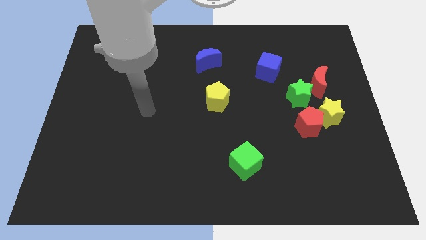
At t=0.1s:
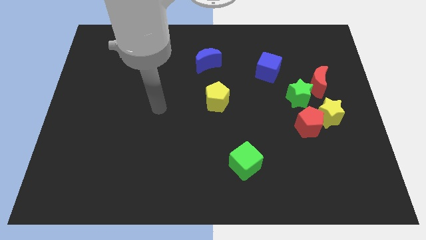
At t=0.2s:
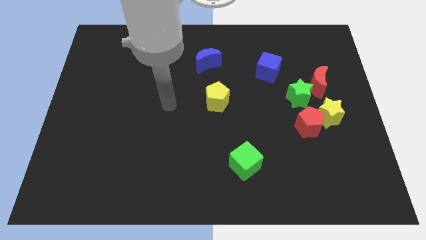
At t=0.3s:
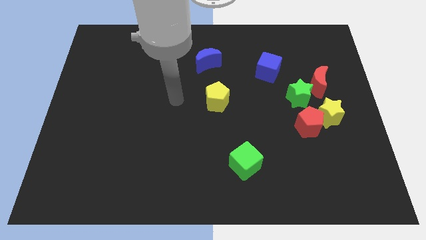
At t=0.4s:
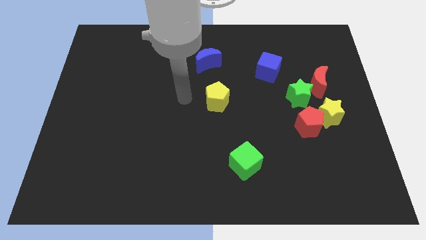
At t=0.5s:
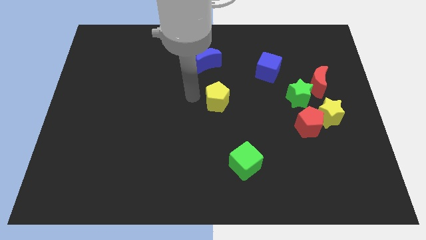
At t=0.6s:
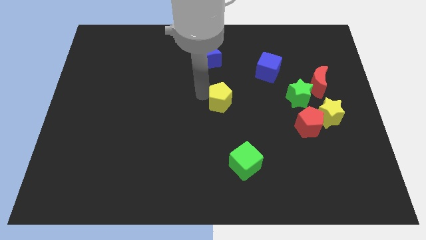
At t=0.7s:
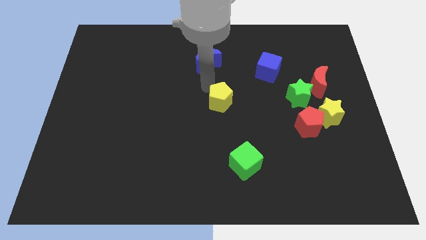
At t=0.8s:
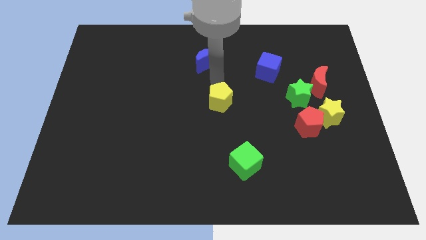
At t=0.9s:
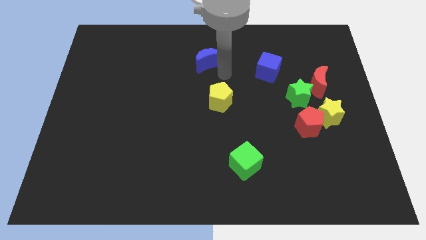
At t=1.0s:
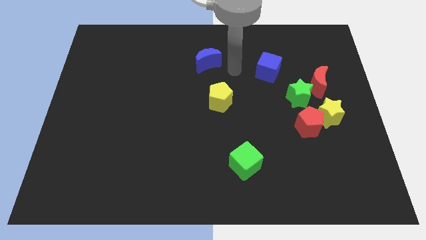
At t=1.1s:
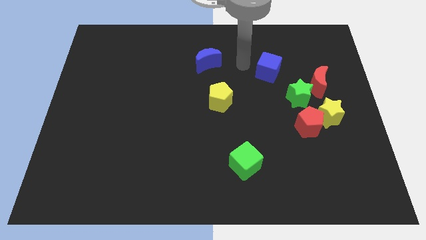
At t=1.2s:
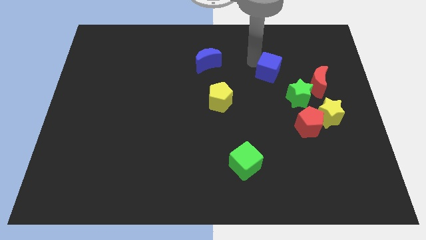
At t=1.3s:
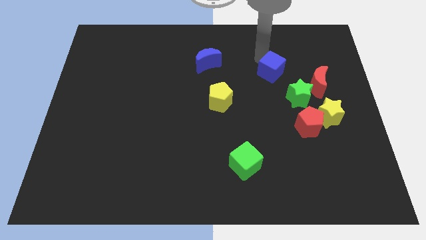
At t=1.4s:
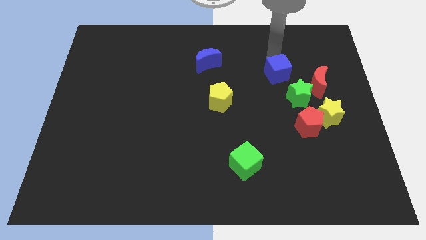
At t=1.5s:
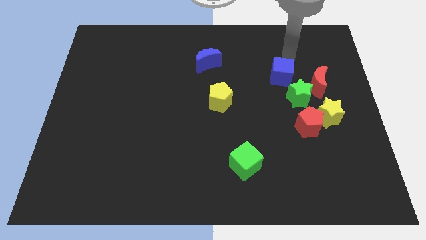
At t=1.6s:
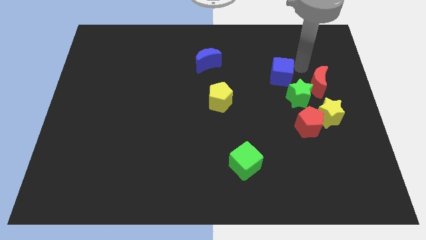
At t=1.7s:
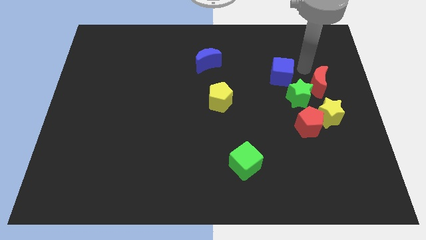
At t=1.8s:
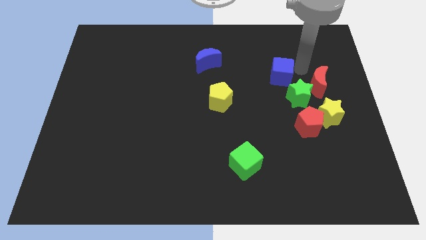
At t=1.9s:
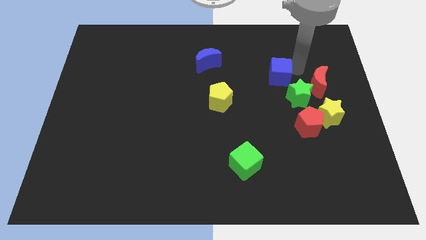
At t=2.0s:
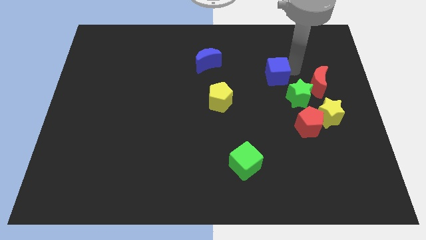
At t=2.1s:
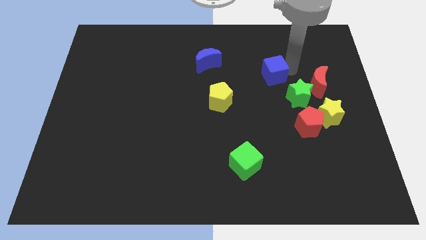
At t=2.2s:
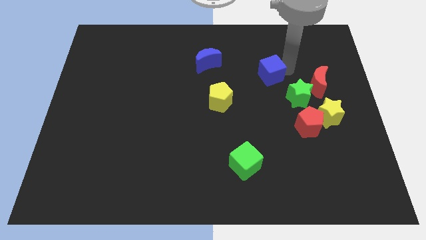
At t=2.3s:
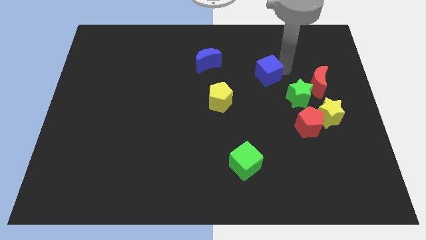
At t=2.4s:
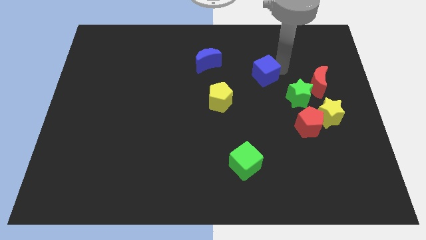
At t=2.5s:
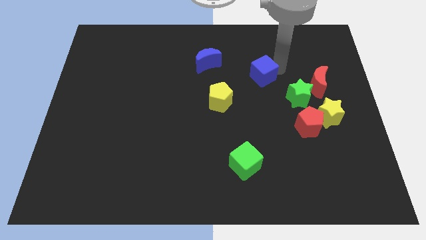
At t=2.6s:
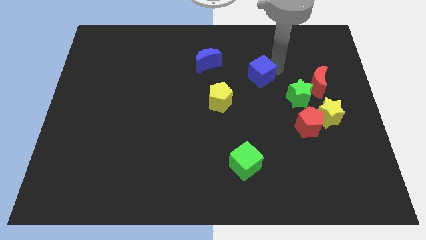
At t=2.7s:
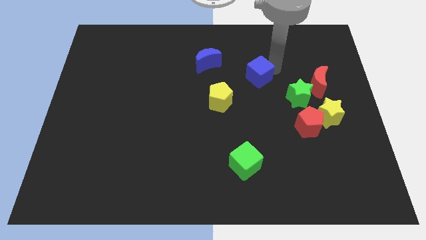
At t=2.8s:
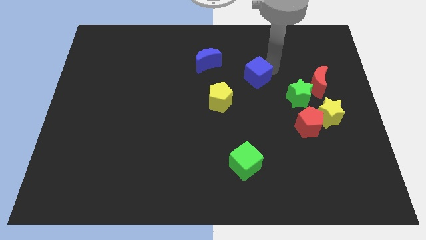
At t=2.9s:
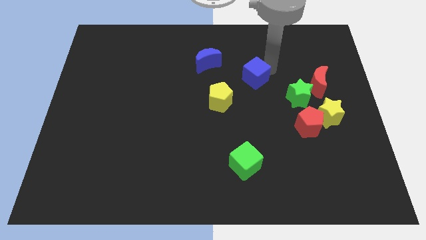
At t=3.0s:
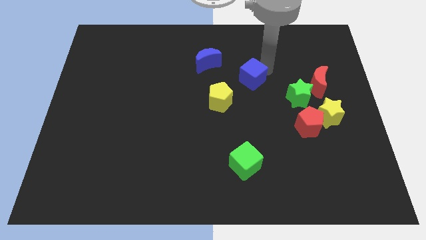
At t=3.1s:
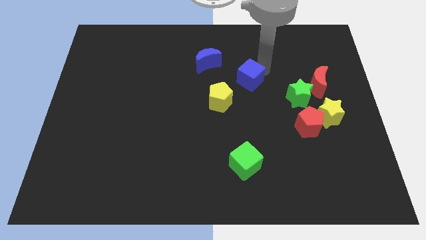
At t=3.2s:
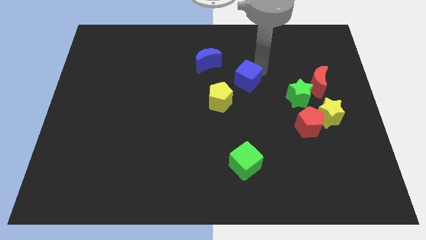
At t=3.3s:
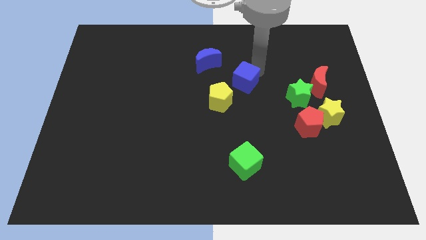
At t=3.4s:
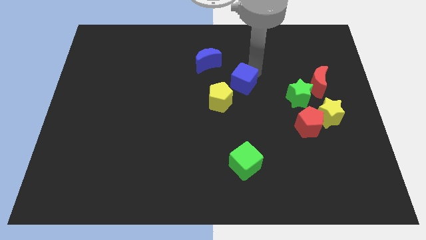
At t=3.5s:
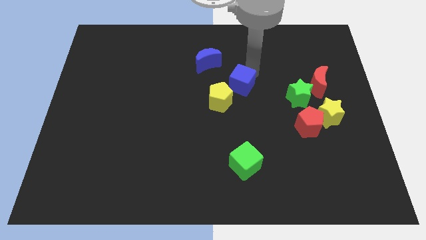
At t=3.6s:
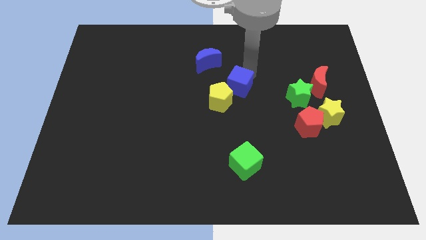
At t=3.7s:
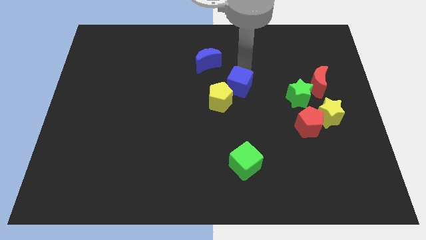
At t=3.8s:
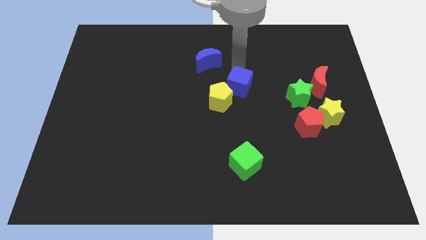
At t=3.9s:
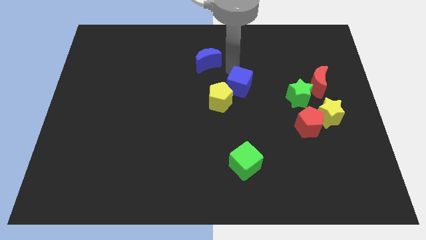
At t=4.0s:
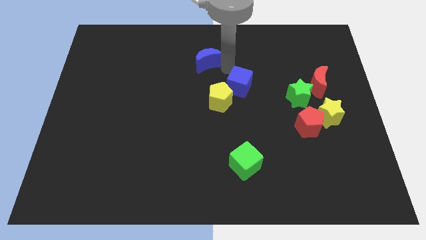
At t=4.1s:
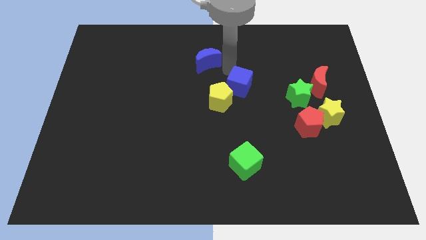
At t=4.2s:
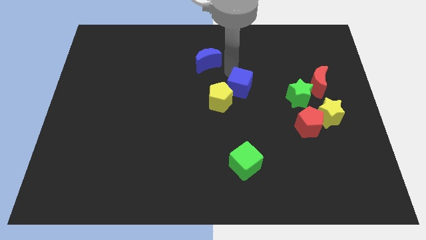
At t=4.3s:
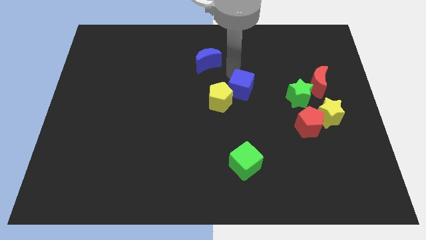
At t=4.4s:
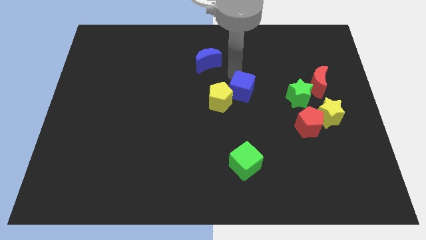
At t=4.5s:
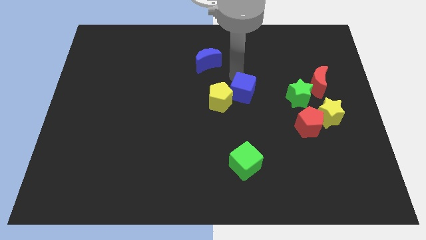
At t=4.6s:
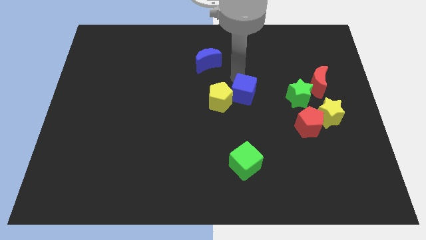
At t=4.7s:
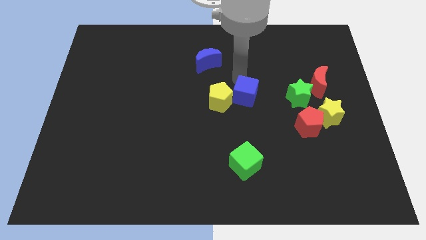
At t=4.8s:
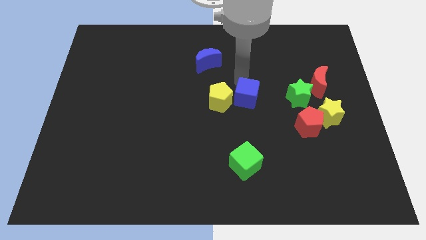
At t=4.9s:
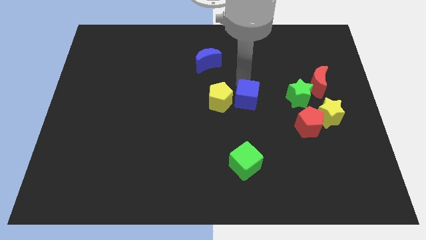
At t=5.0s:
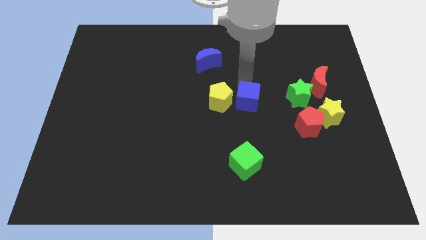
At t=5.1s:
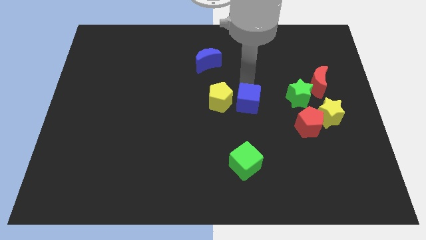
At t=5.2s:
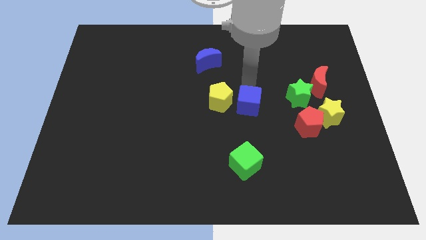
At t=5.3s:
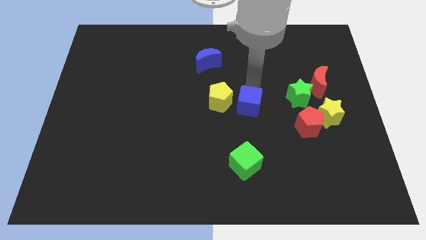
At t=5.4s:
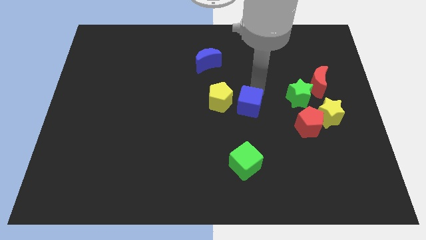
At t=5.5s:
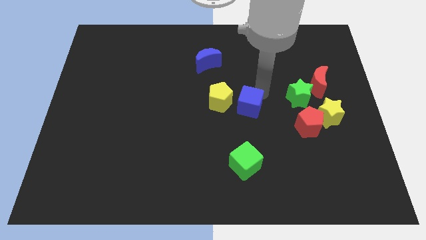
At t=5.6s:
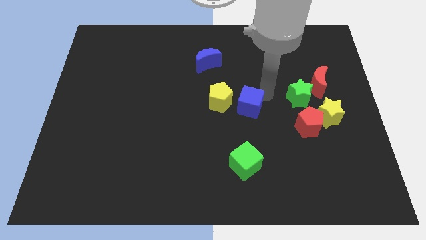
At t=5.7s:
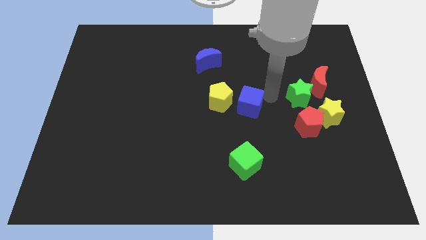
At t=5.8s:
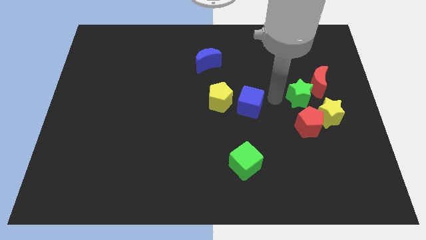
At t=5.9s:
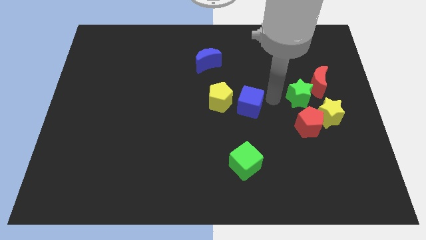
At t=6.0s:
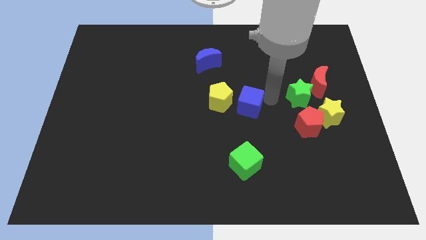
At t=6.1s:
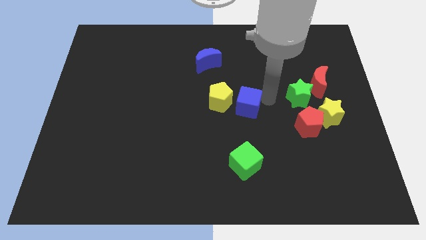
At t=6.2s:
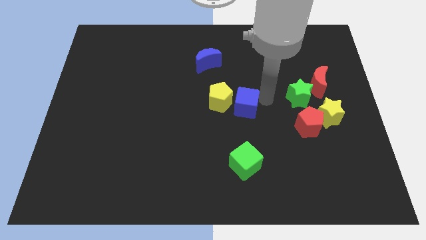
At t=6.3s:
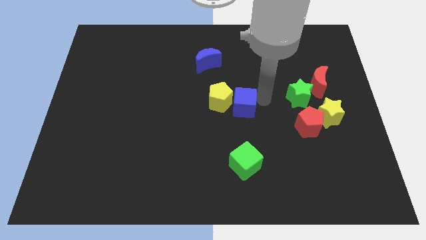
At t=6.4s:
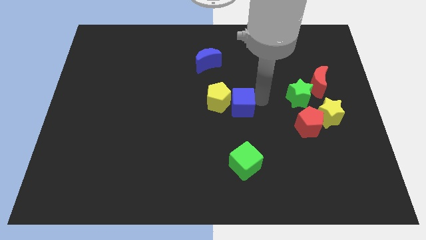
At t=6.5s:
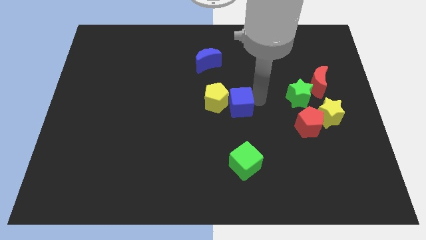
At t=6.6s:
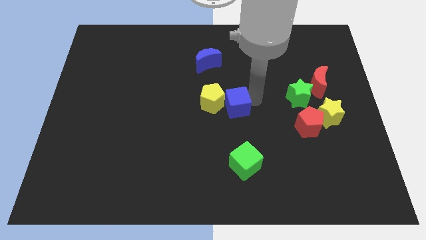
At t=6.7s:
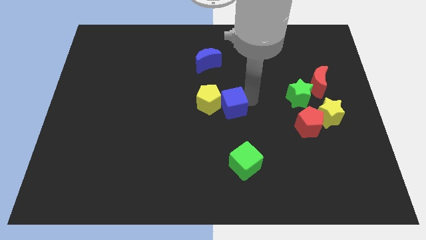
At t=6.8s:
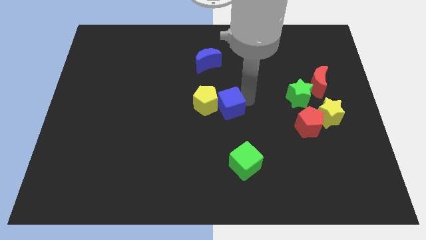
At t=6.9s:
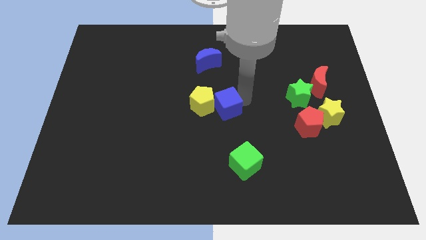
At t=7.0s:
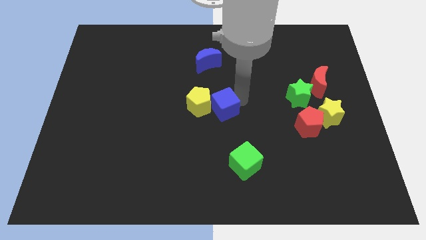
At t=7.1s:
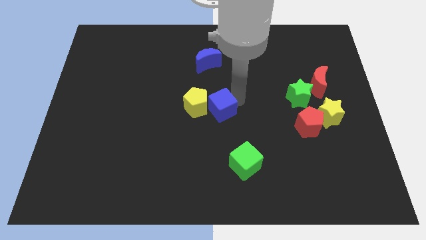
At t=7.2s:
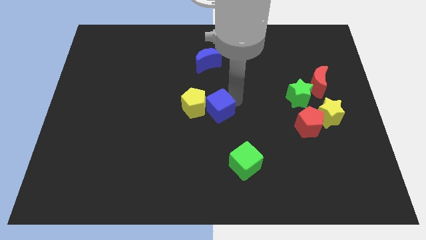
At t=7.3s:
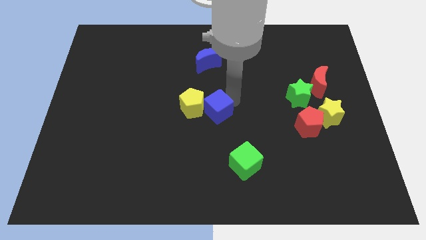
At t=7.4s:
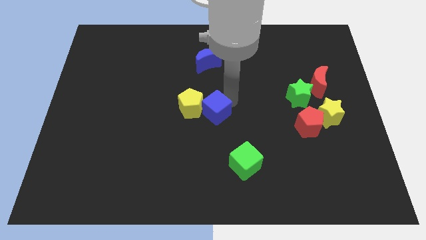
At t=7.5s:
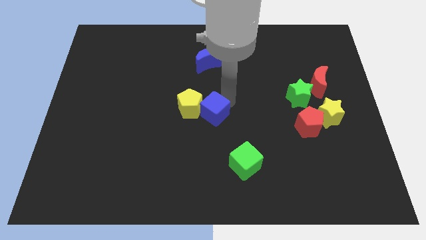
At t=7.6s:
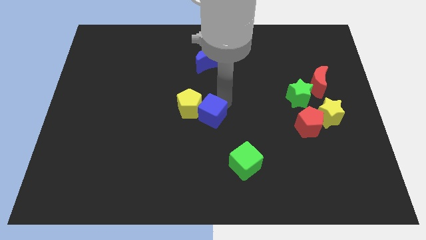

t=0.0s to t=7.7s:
push the blue cube down and then left

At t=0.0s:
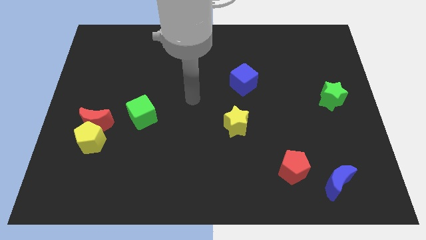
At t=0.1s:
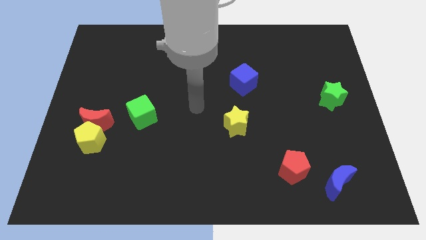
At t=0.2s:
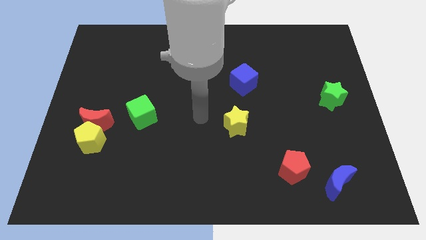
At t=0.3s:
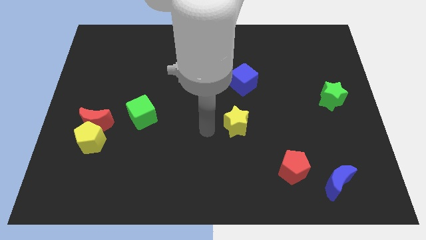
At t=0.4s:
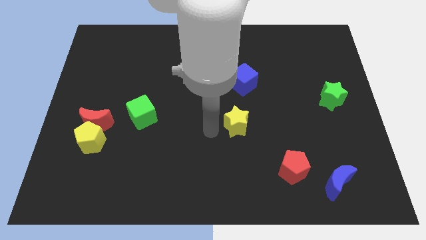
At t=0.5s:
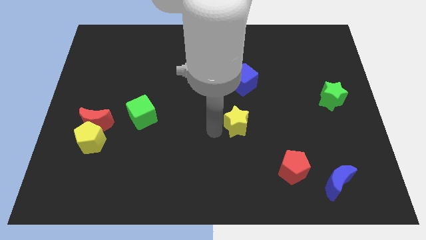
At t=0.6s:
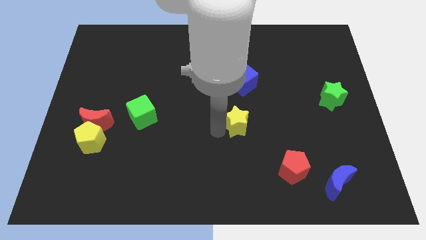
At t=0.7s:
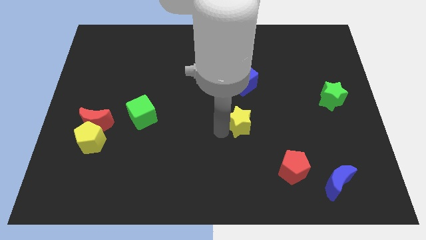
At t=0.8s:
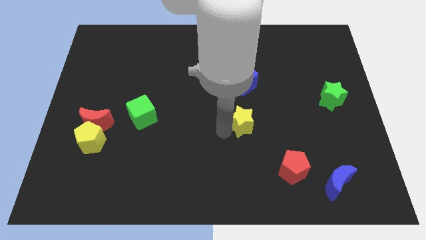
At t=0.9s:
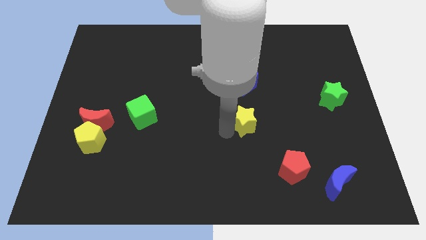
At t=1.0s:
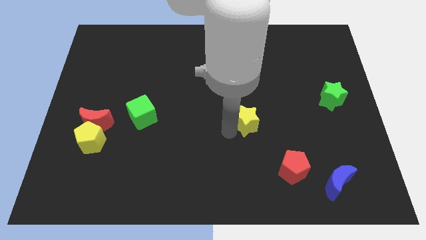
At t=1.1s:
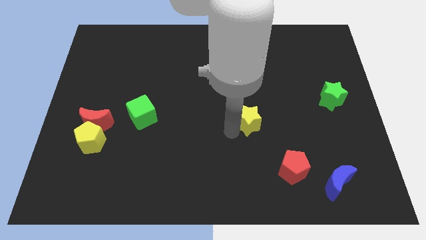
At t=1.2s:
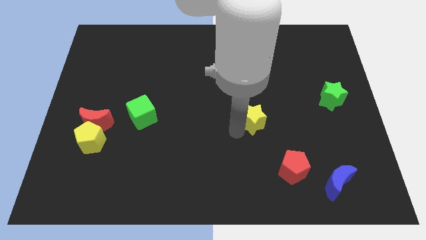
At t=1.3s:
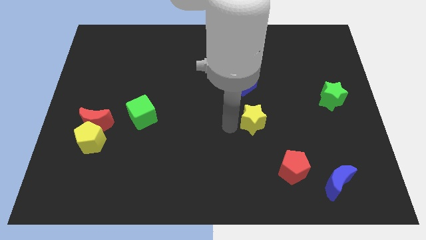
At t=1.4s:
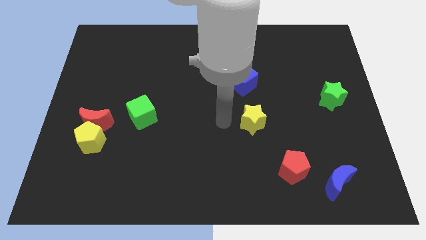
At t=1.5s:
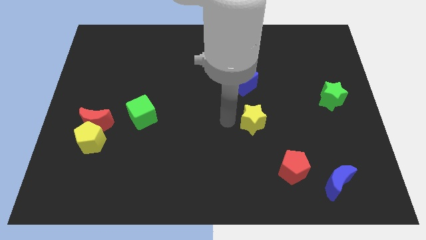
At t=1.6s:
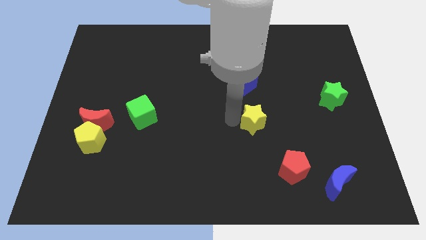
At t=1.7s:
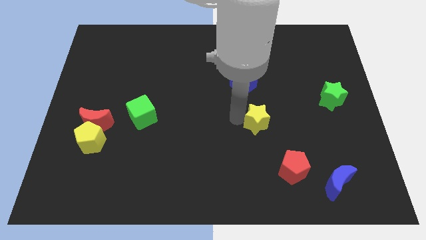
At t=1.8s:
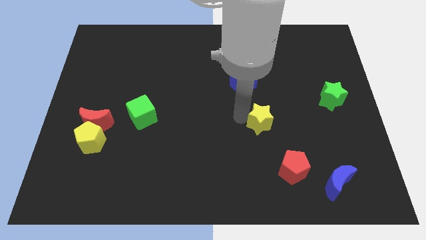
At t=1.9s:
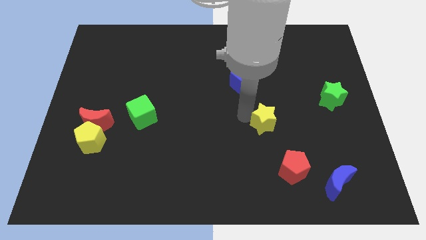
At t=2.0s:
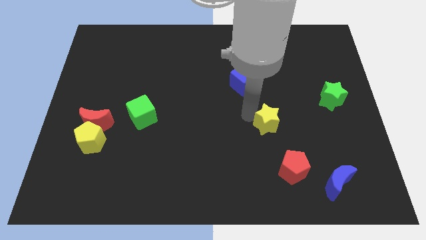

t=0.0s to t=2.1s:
slightly move the yellow star right
